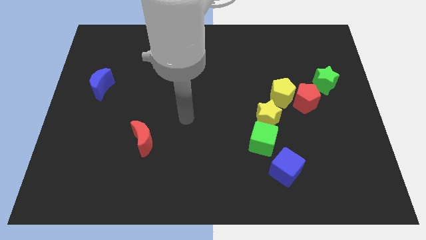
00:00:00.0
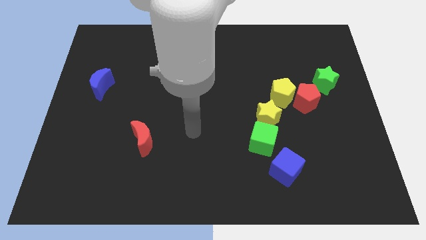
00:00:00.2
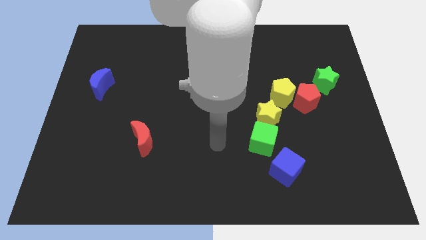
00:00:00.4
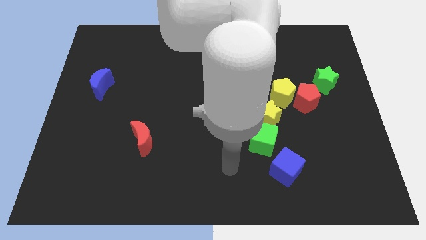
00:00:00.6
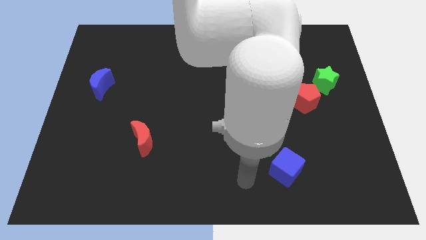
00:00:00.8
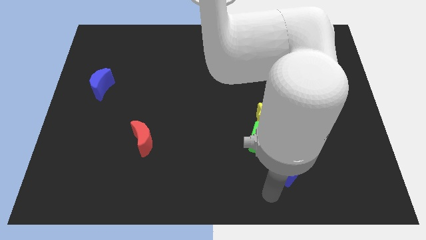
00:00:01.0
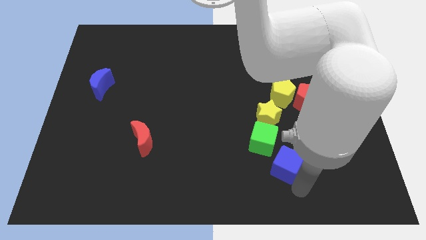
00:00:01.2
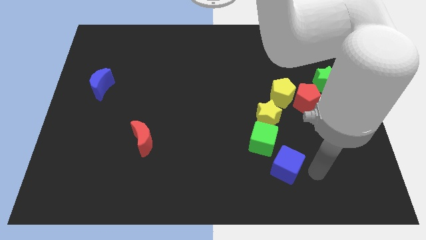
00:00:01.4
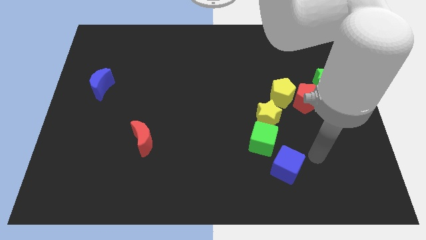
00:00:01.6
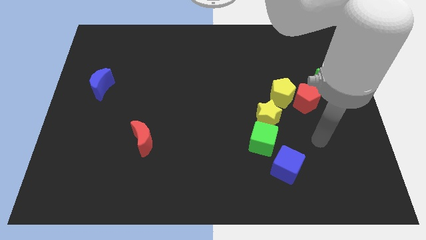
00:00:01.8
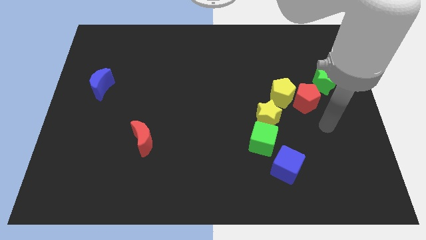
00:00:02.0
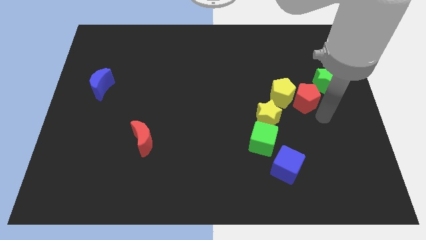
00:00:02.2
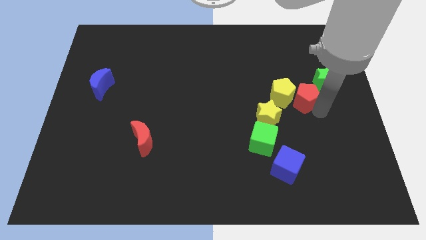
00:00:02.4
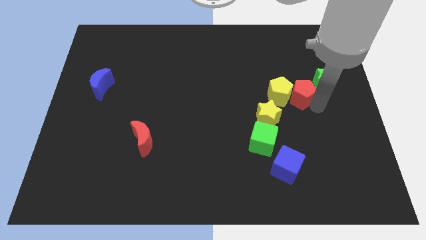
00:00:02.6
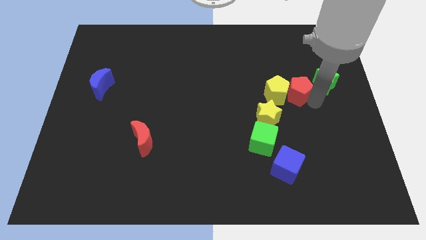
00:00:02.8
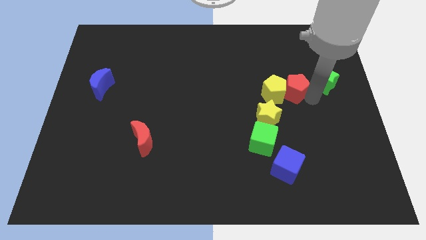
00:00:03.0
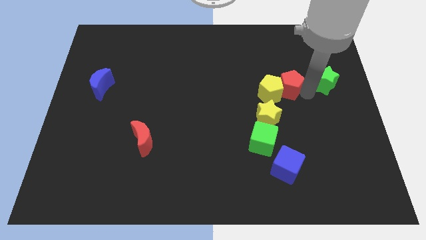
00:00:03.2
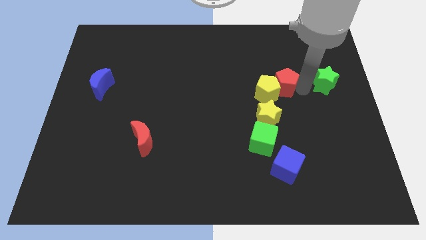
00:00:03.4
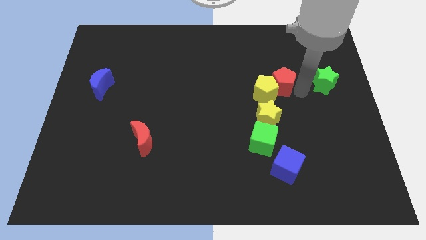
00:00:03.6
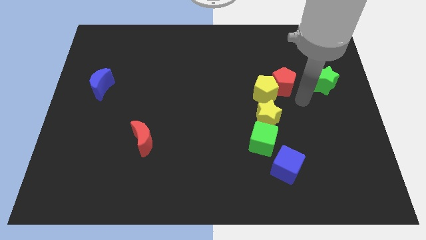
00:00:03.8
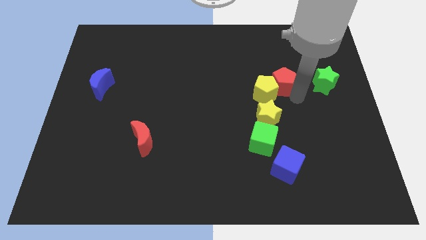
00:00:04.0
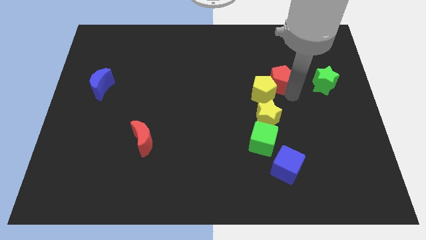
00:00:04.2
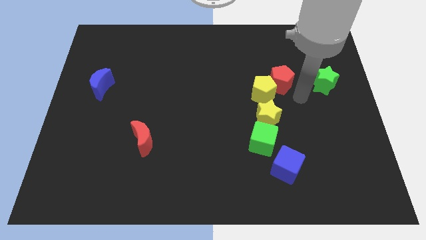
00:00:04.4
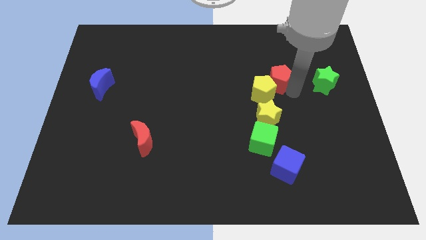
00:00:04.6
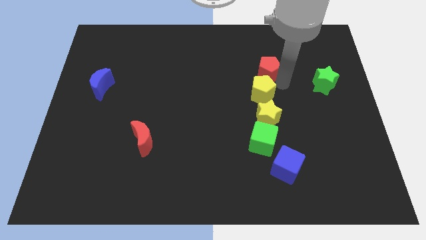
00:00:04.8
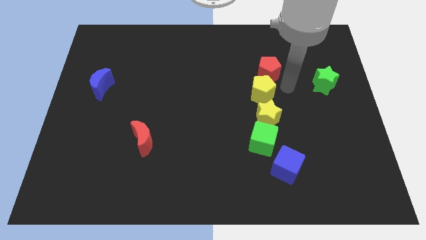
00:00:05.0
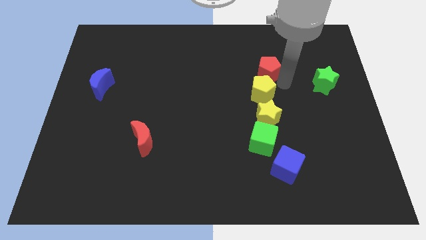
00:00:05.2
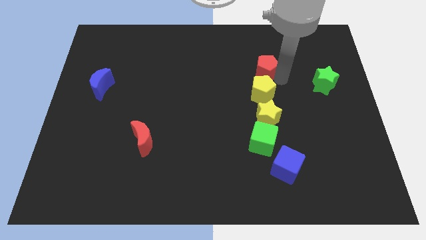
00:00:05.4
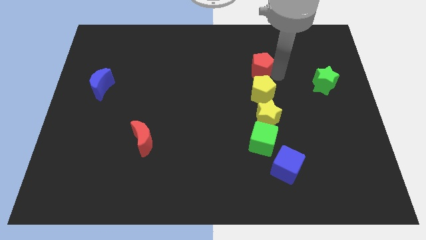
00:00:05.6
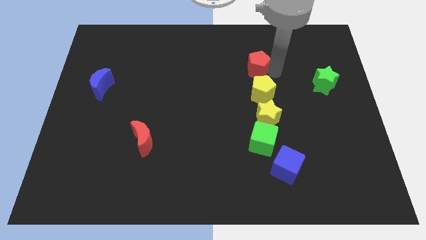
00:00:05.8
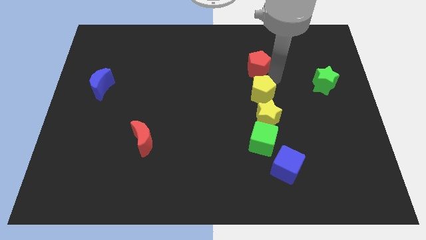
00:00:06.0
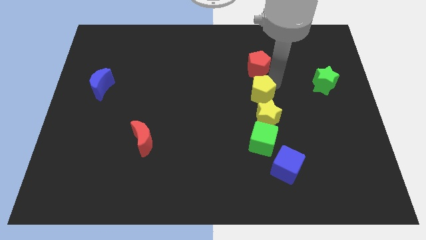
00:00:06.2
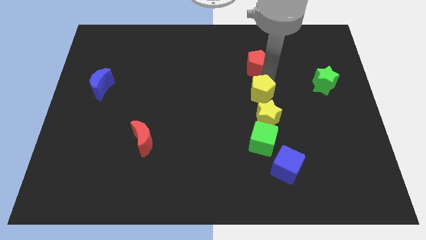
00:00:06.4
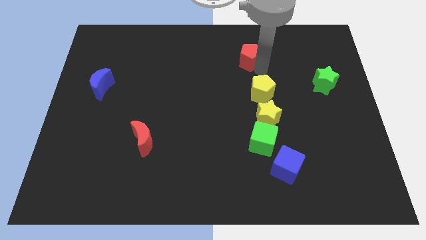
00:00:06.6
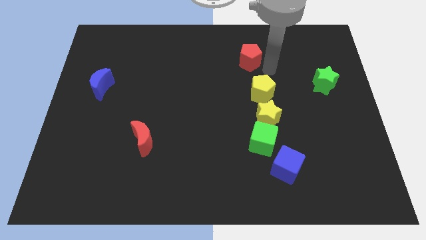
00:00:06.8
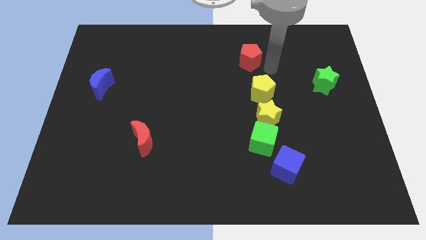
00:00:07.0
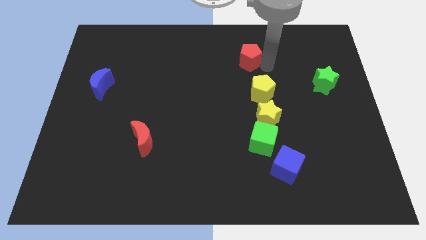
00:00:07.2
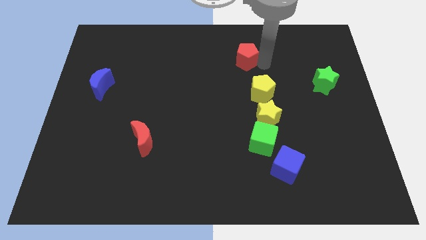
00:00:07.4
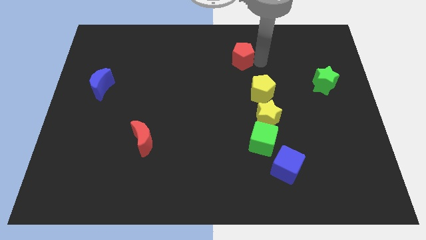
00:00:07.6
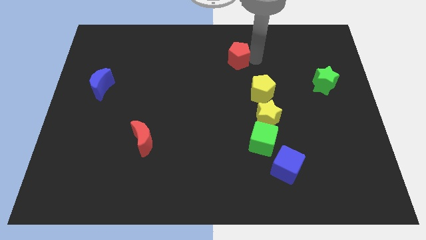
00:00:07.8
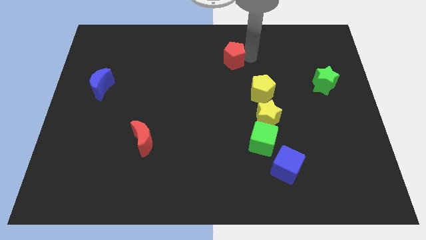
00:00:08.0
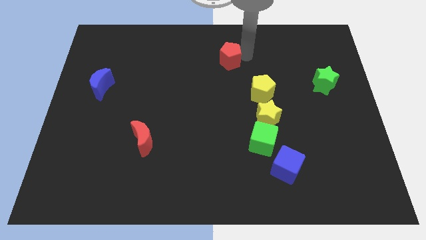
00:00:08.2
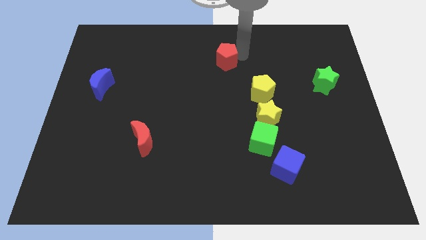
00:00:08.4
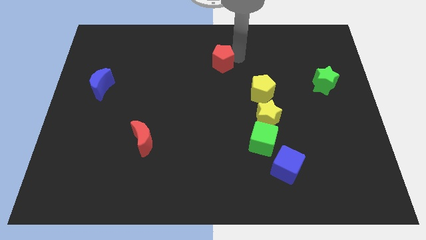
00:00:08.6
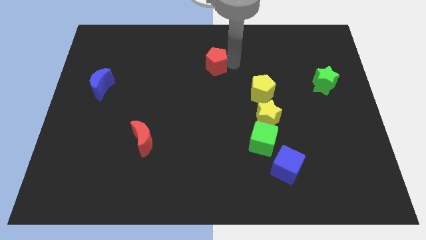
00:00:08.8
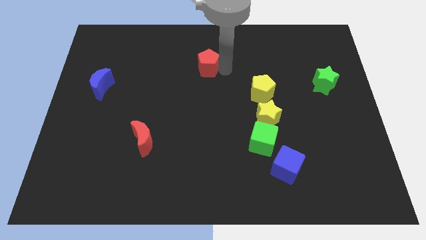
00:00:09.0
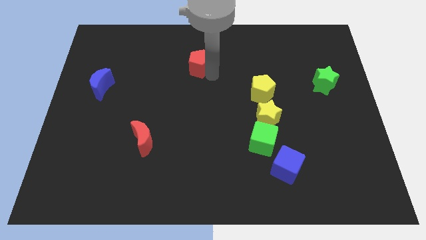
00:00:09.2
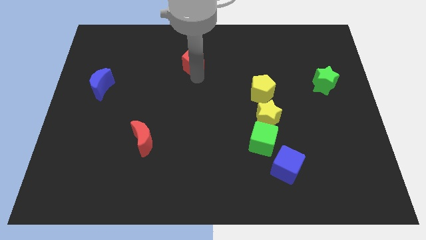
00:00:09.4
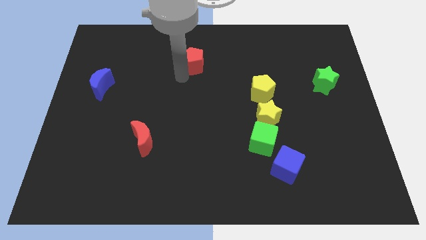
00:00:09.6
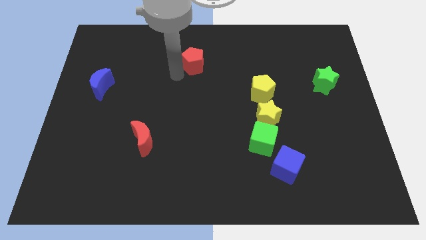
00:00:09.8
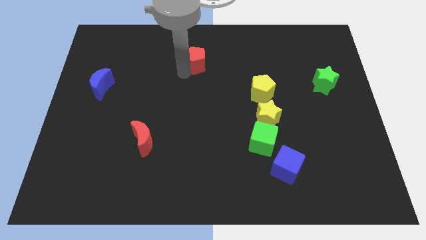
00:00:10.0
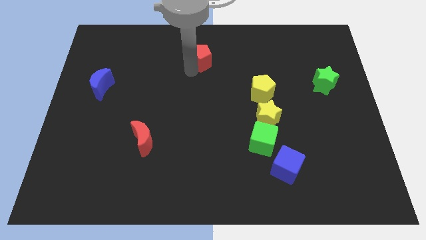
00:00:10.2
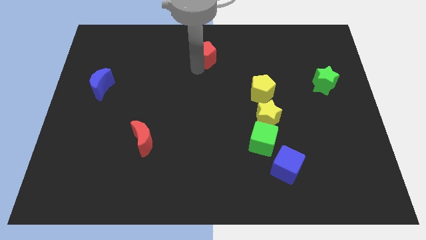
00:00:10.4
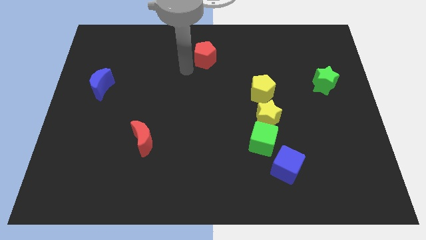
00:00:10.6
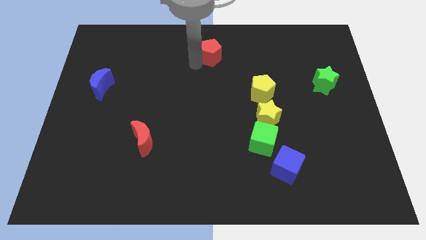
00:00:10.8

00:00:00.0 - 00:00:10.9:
move the red pentagon to the towards your base
